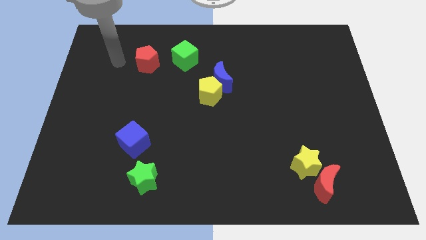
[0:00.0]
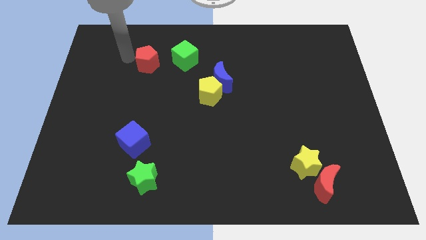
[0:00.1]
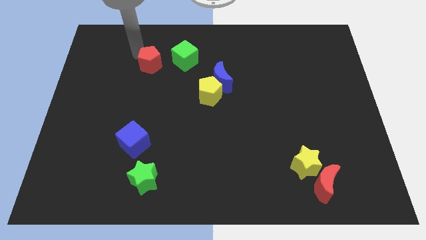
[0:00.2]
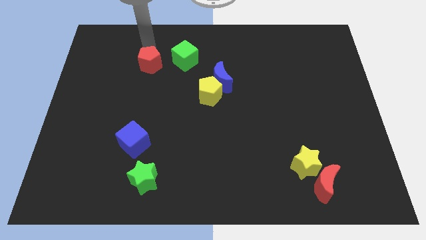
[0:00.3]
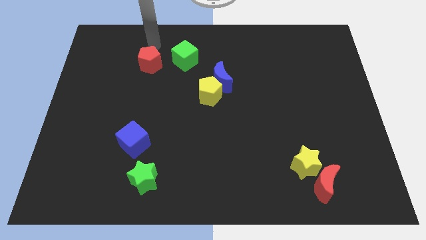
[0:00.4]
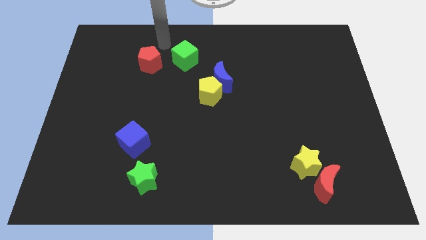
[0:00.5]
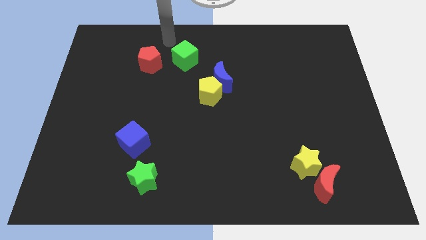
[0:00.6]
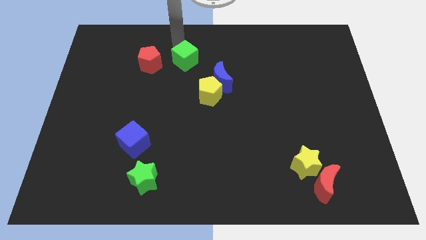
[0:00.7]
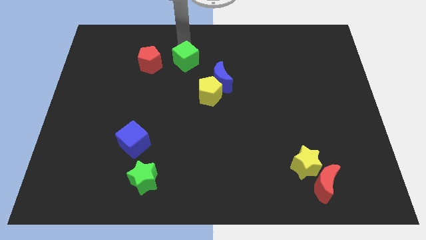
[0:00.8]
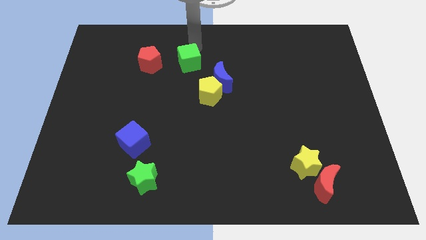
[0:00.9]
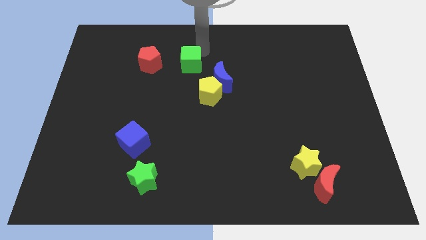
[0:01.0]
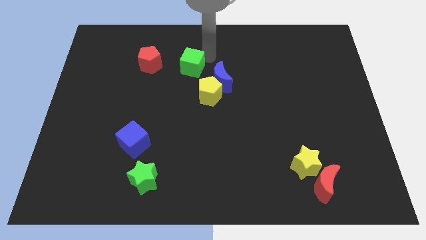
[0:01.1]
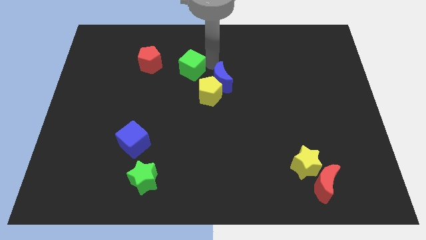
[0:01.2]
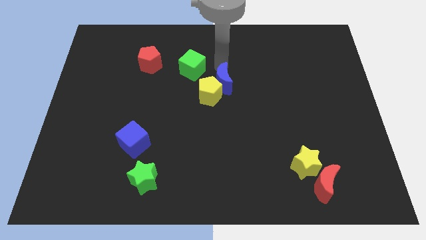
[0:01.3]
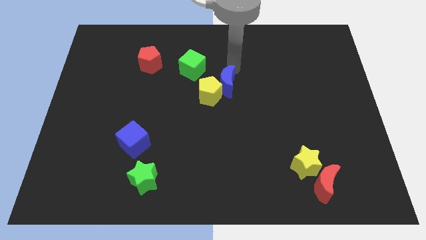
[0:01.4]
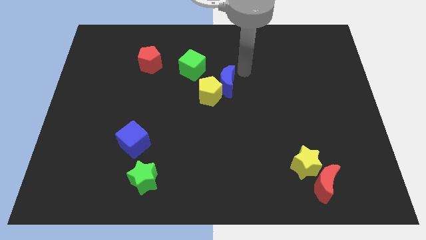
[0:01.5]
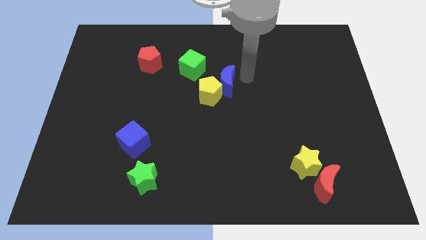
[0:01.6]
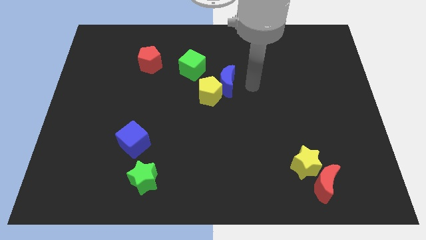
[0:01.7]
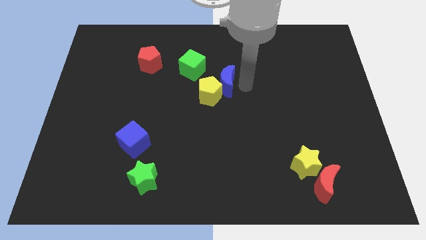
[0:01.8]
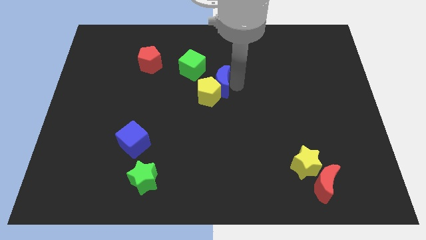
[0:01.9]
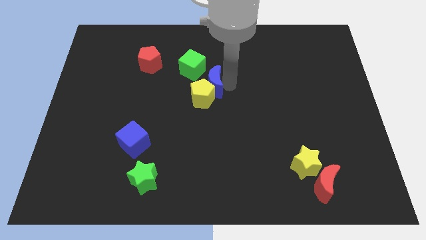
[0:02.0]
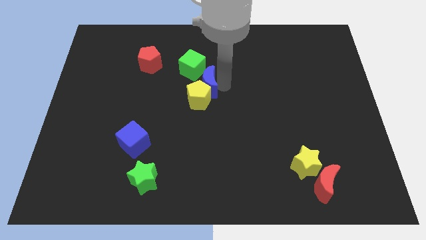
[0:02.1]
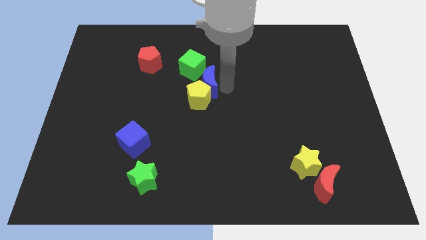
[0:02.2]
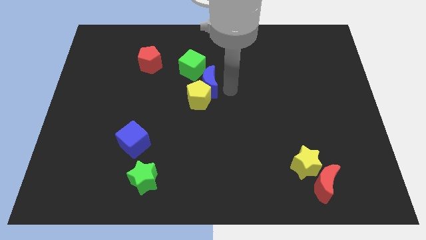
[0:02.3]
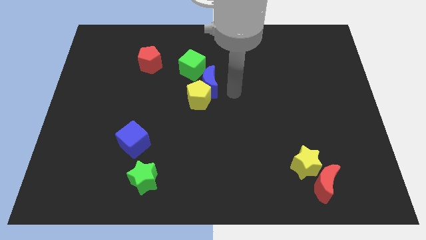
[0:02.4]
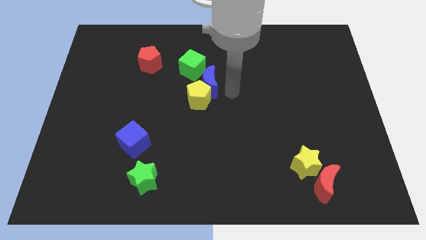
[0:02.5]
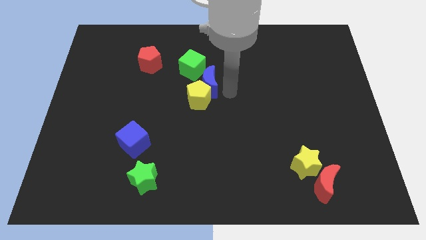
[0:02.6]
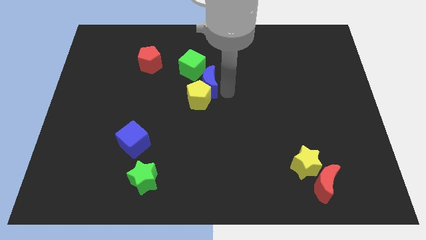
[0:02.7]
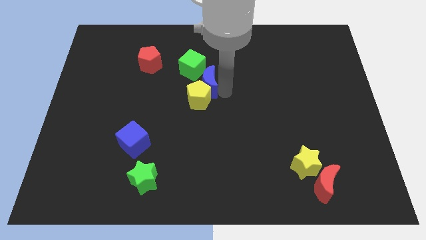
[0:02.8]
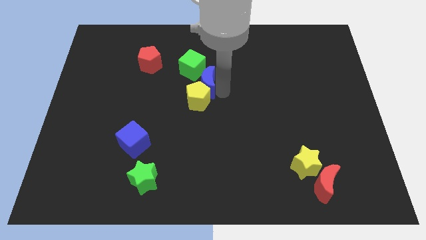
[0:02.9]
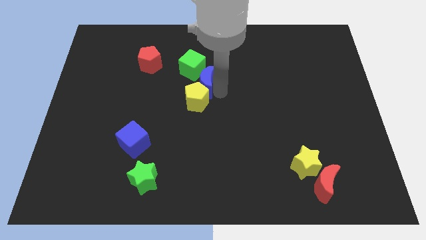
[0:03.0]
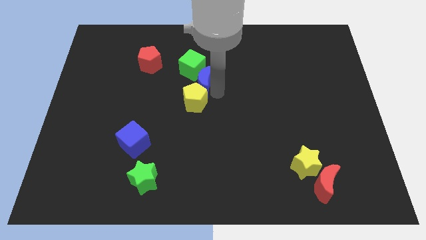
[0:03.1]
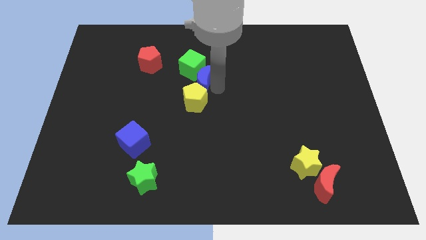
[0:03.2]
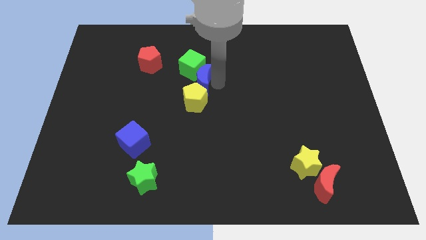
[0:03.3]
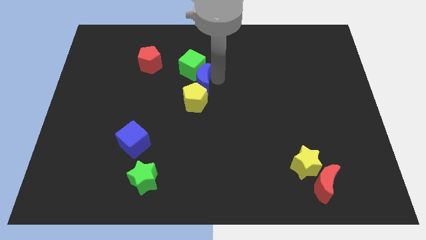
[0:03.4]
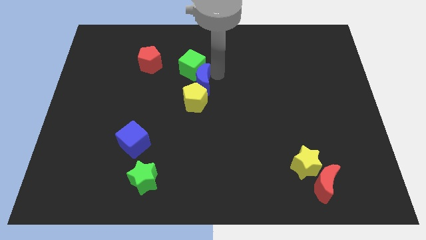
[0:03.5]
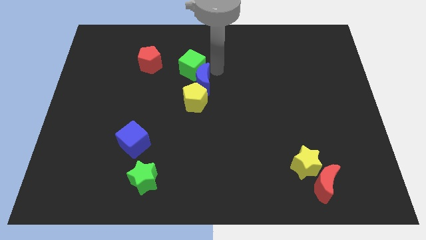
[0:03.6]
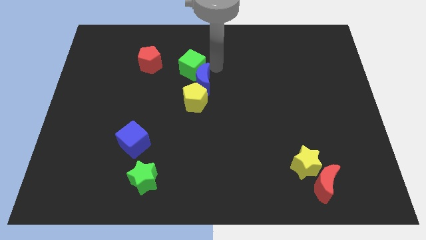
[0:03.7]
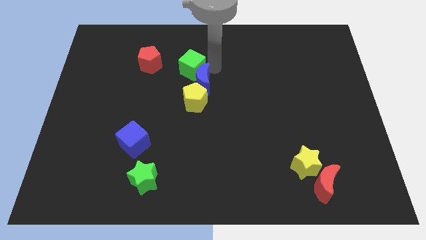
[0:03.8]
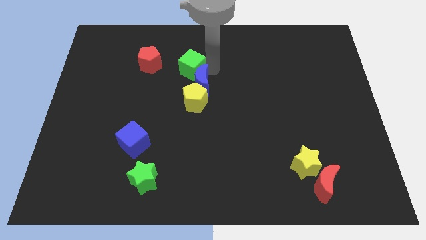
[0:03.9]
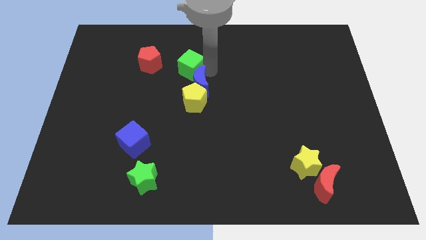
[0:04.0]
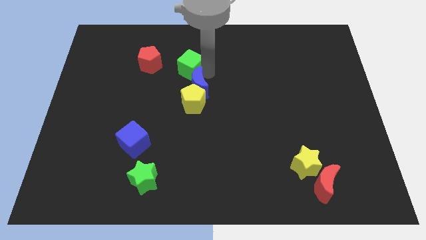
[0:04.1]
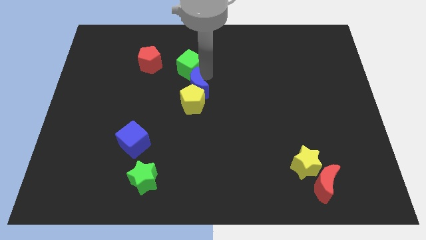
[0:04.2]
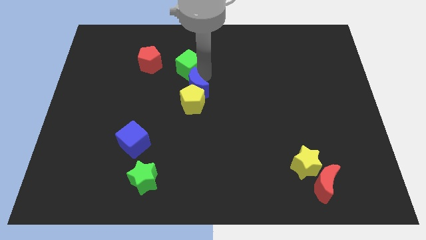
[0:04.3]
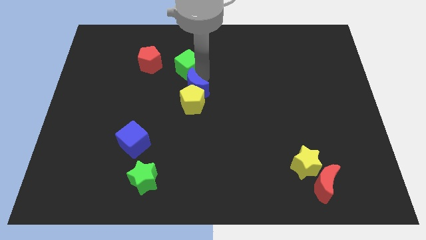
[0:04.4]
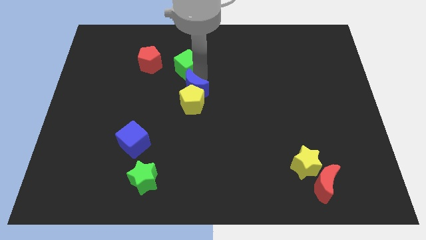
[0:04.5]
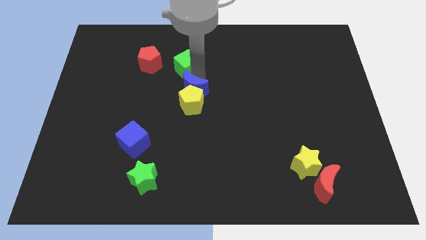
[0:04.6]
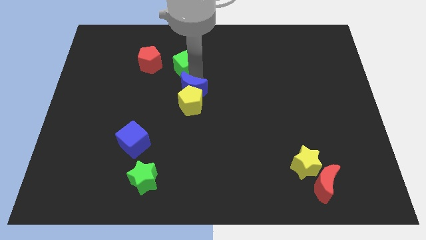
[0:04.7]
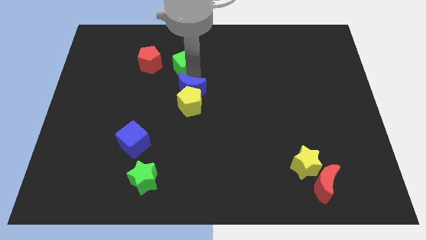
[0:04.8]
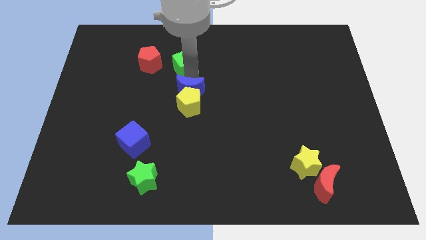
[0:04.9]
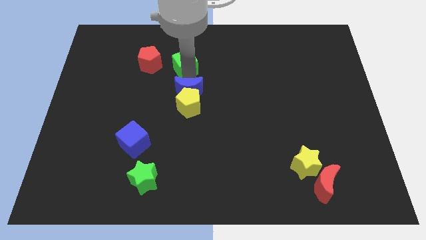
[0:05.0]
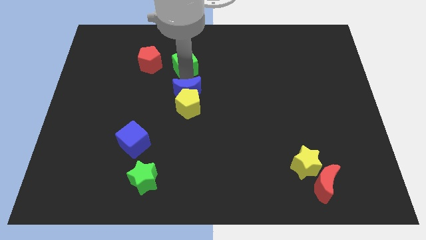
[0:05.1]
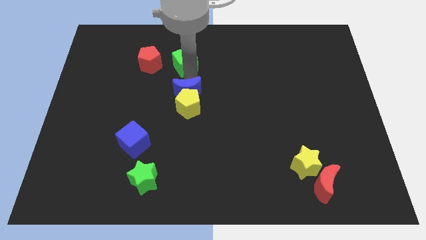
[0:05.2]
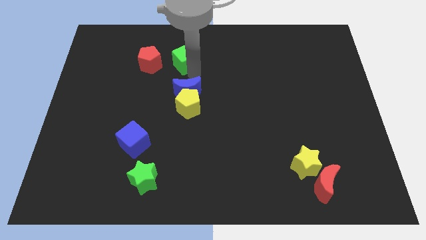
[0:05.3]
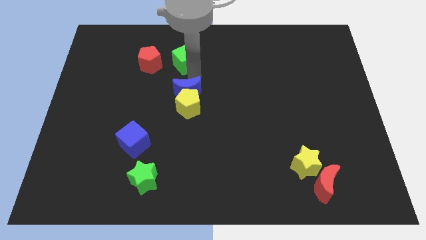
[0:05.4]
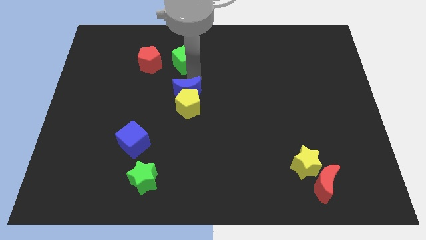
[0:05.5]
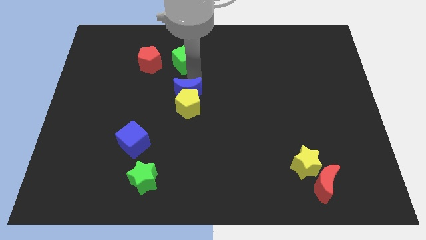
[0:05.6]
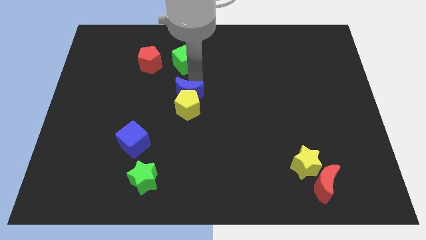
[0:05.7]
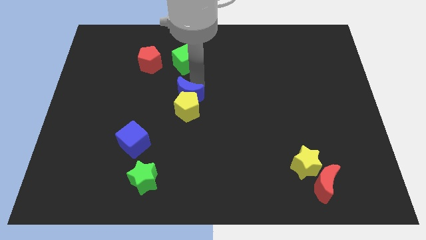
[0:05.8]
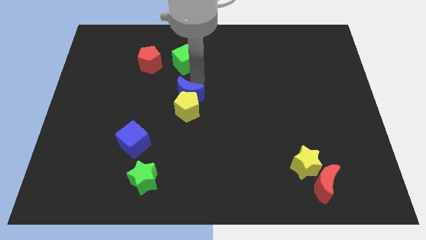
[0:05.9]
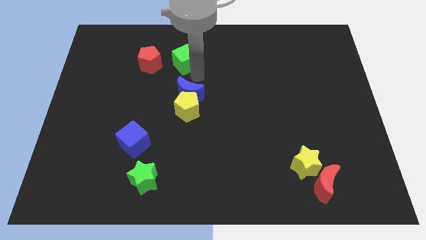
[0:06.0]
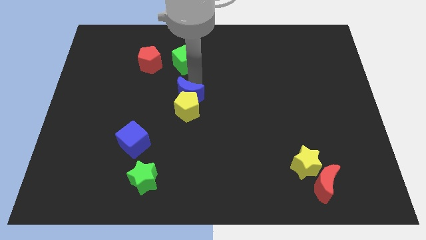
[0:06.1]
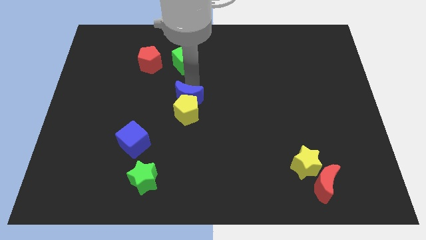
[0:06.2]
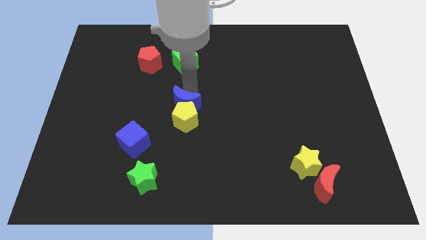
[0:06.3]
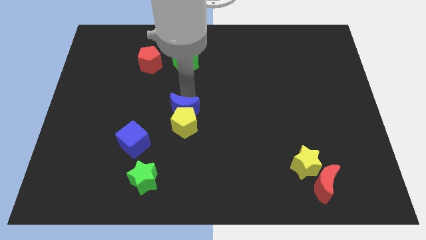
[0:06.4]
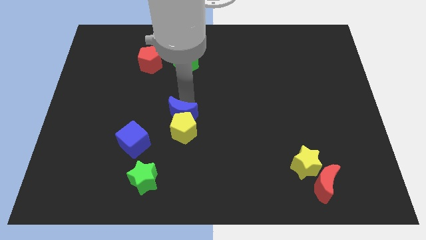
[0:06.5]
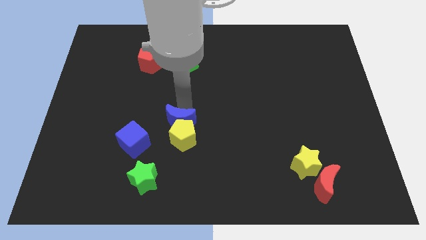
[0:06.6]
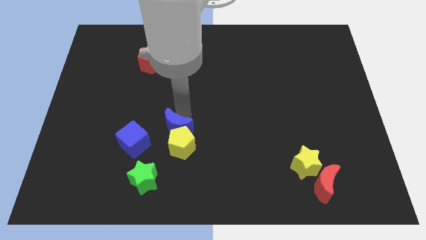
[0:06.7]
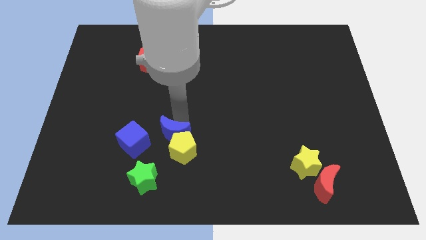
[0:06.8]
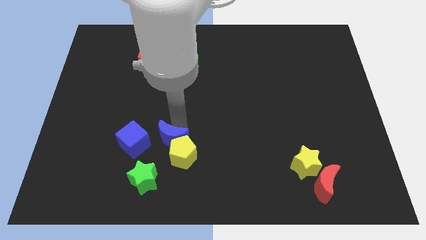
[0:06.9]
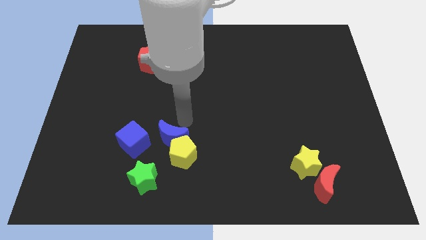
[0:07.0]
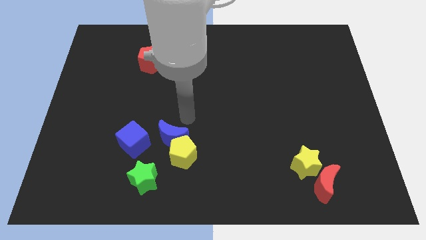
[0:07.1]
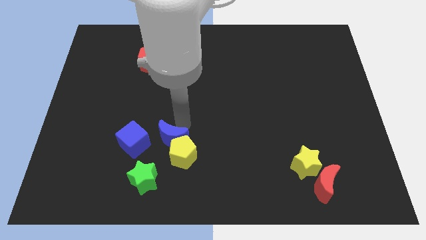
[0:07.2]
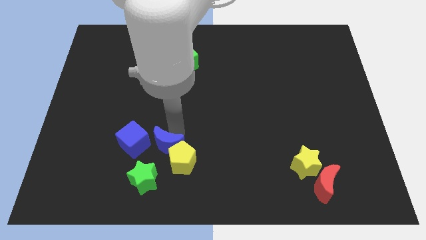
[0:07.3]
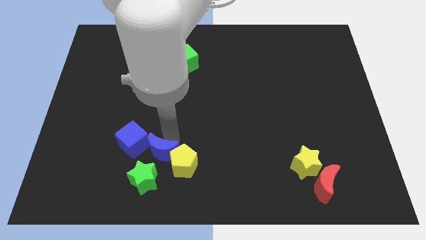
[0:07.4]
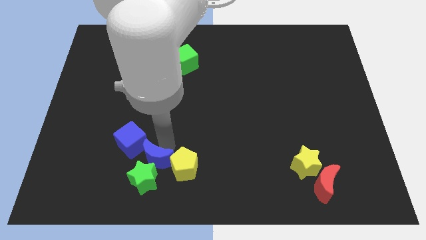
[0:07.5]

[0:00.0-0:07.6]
slide the blue moon close to the green star
